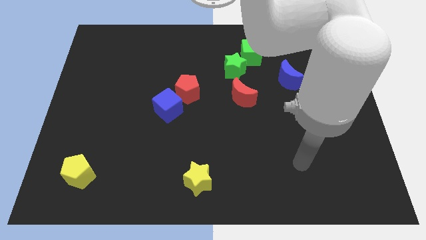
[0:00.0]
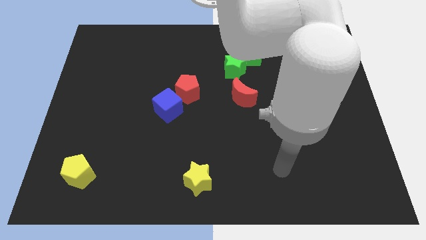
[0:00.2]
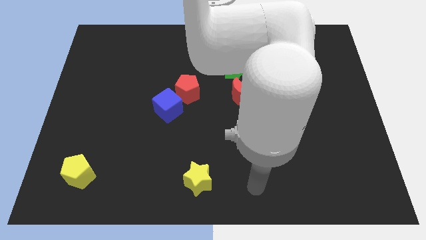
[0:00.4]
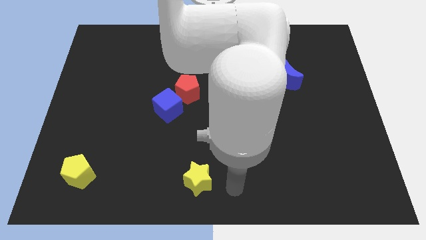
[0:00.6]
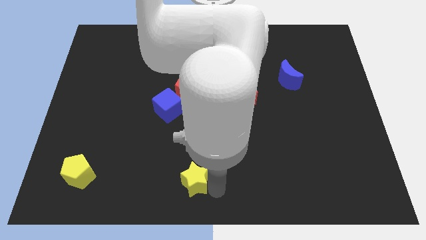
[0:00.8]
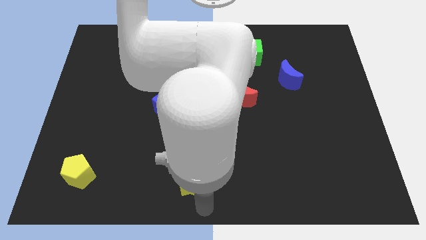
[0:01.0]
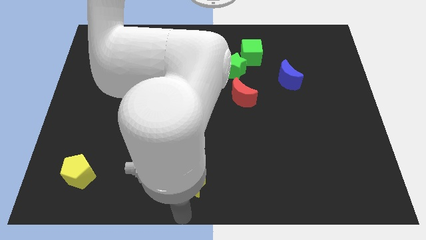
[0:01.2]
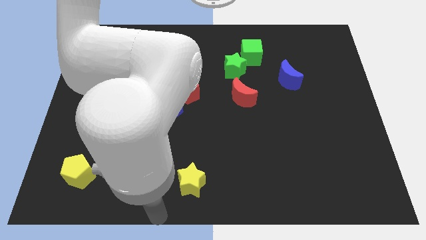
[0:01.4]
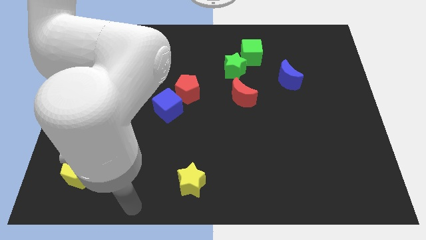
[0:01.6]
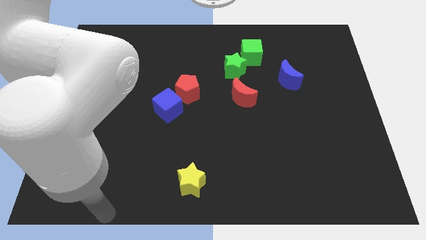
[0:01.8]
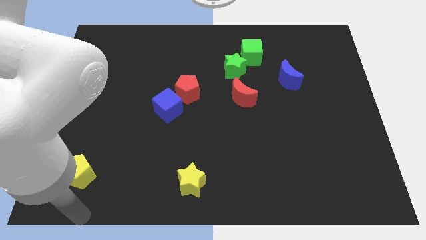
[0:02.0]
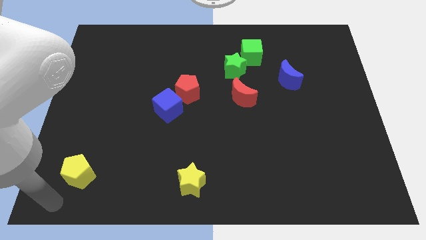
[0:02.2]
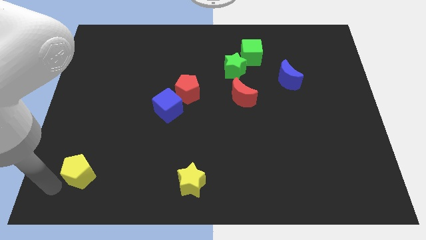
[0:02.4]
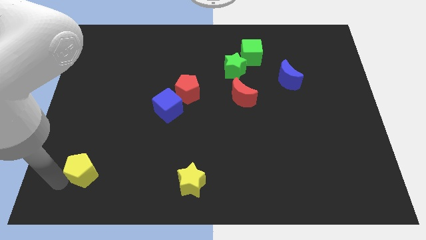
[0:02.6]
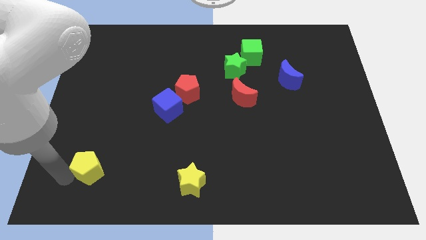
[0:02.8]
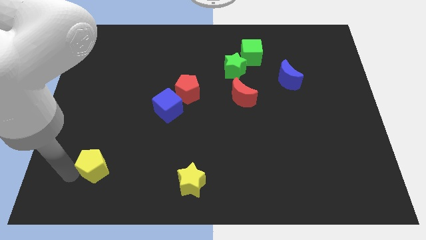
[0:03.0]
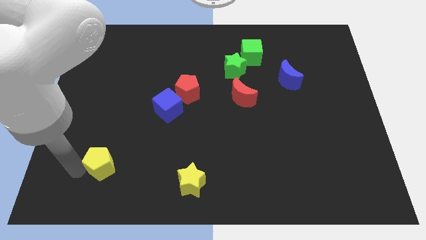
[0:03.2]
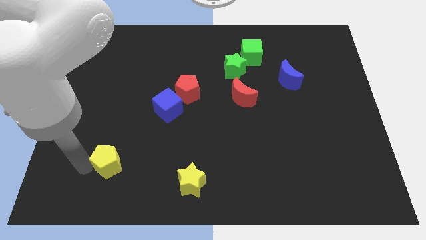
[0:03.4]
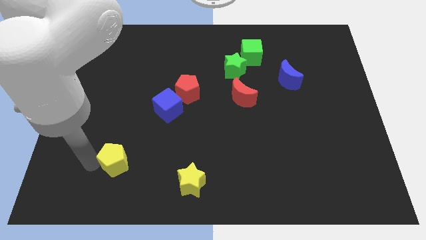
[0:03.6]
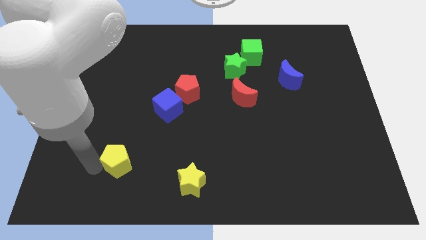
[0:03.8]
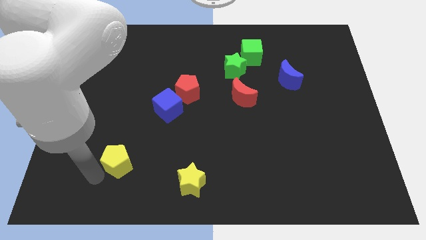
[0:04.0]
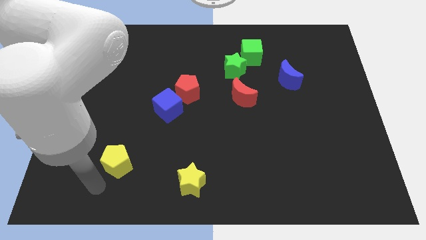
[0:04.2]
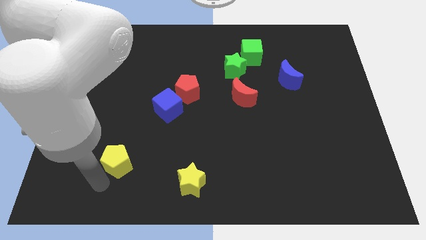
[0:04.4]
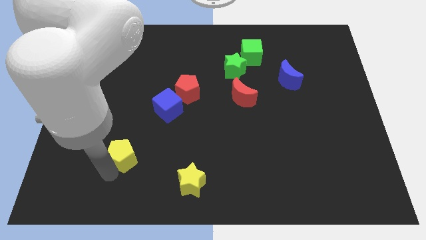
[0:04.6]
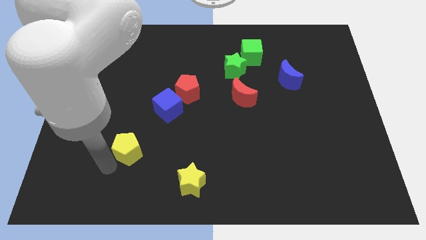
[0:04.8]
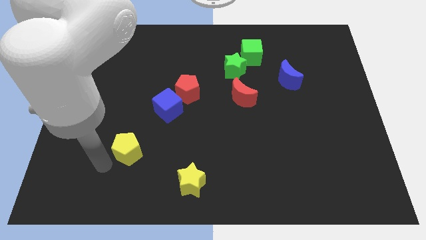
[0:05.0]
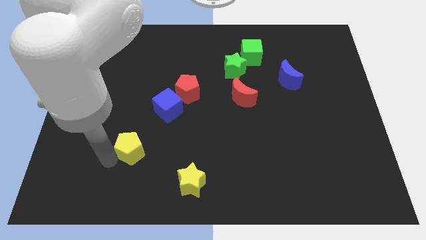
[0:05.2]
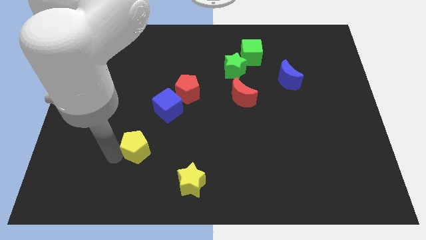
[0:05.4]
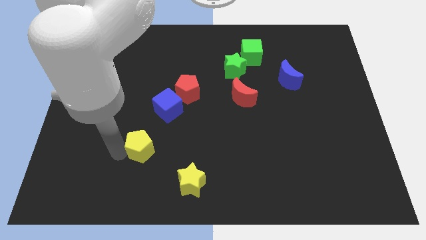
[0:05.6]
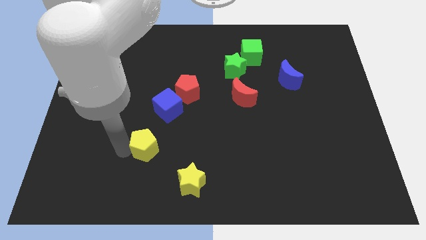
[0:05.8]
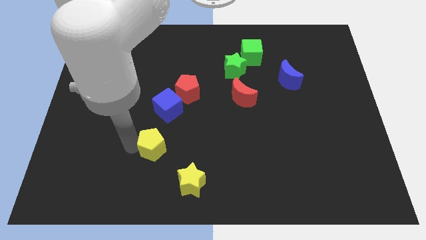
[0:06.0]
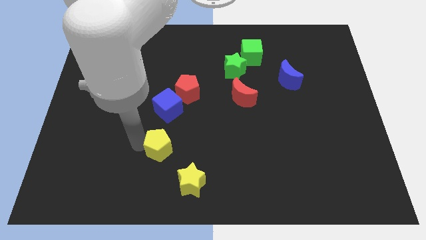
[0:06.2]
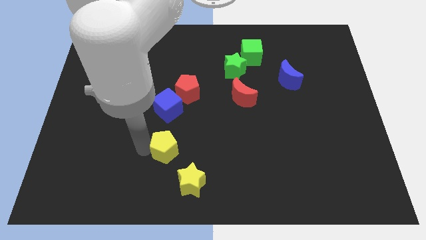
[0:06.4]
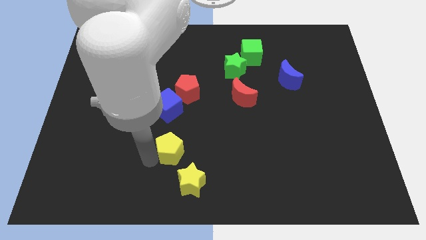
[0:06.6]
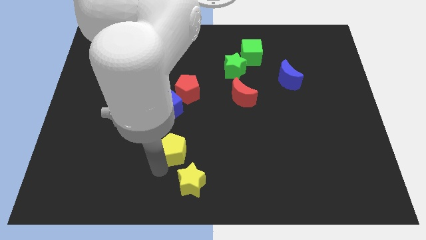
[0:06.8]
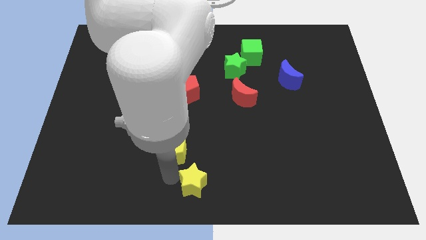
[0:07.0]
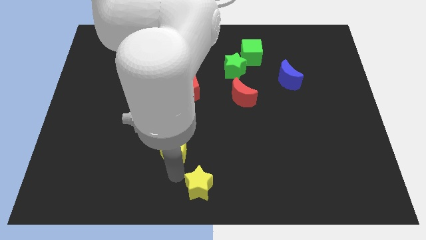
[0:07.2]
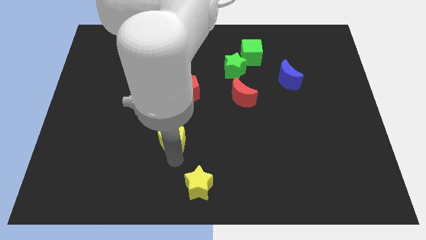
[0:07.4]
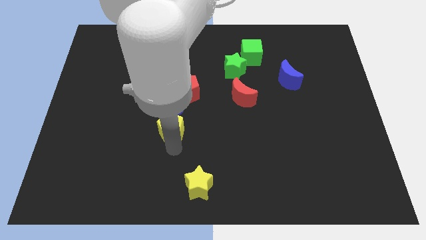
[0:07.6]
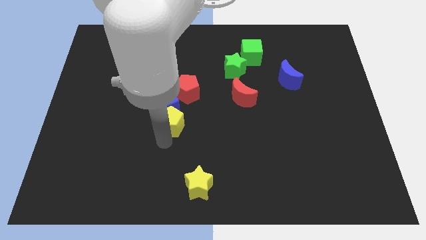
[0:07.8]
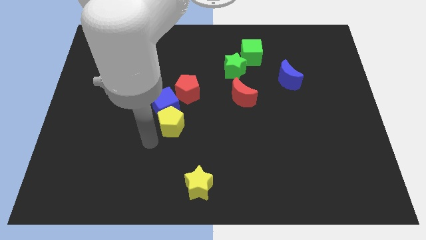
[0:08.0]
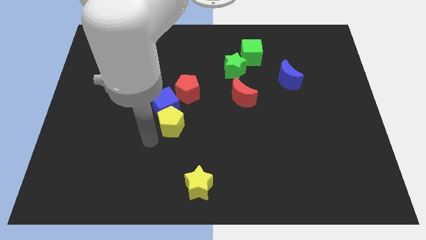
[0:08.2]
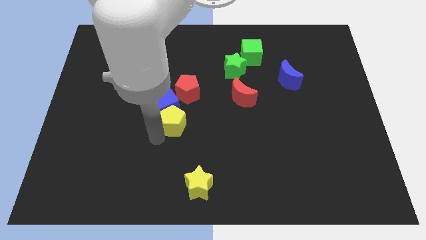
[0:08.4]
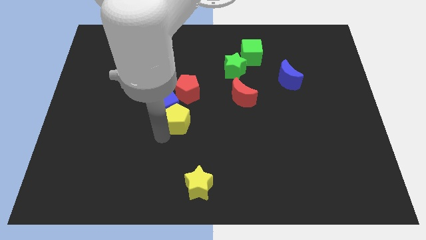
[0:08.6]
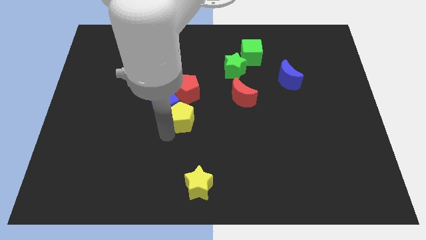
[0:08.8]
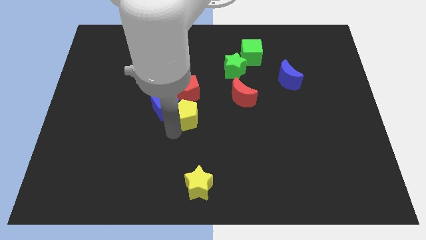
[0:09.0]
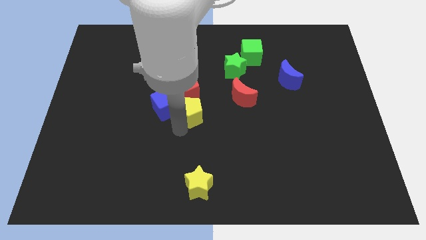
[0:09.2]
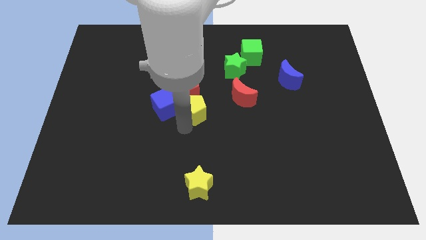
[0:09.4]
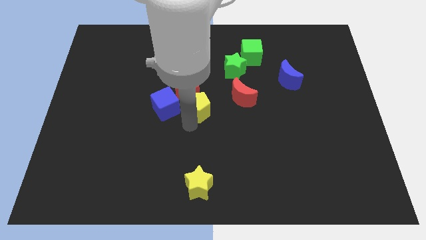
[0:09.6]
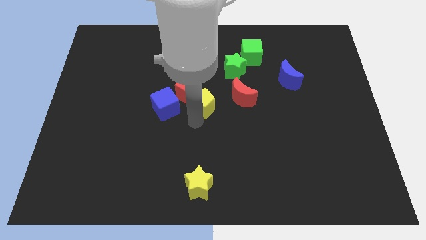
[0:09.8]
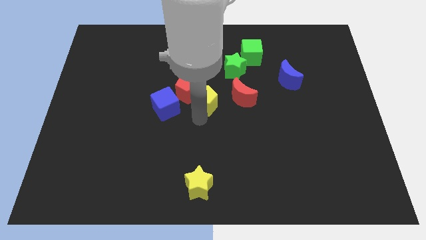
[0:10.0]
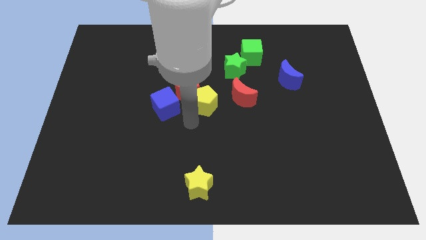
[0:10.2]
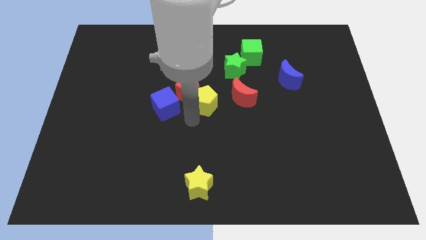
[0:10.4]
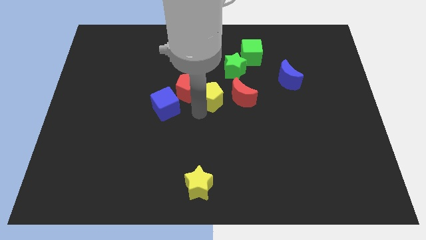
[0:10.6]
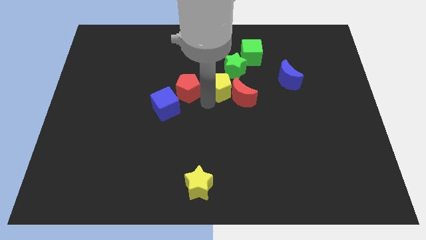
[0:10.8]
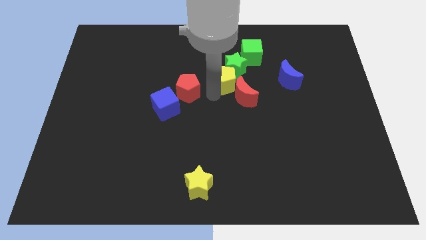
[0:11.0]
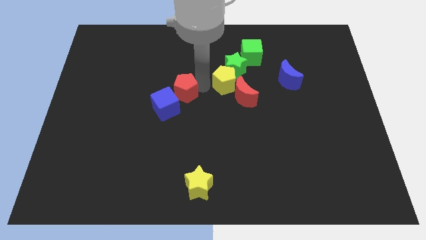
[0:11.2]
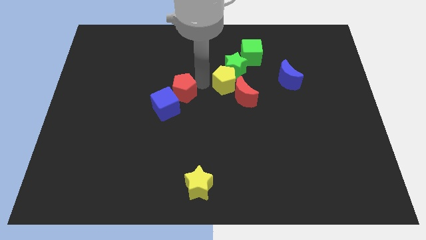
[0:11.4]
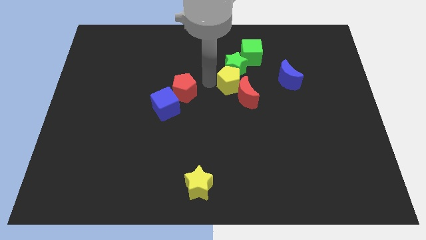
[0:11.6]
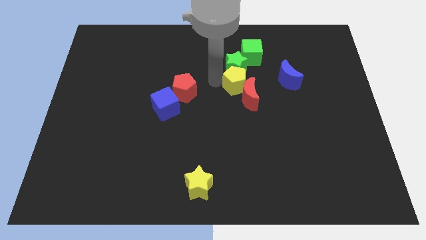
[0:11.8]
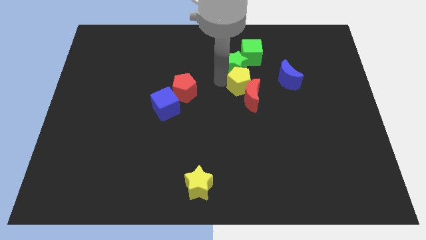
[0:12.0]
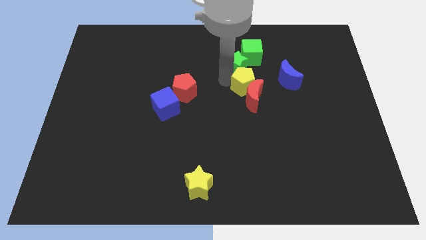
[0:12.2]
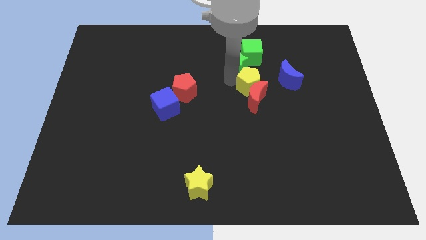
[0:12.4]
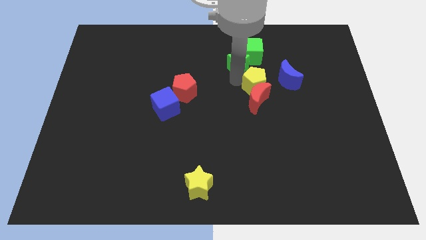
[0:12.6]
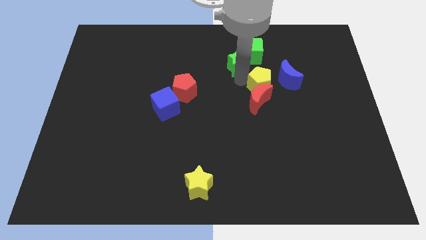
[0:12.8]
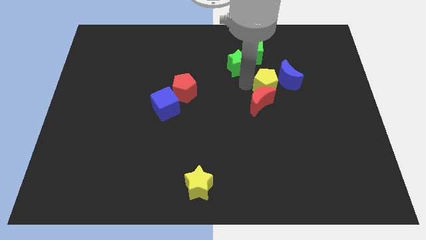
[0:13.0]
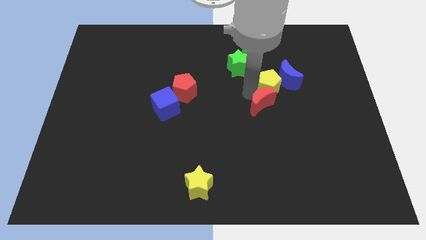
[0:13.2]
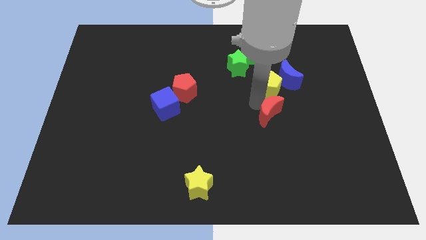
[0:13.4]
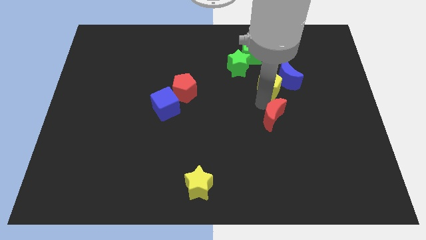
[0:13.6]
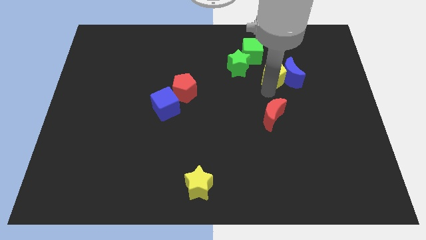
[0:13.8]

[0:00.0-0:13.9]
push the yellow pentagon to the right of the green star
